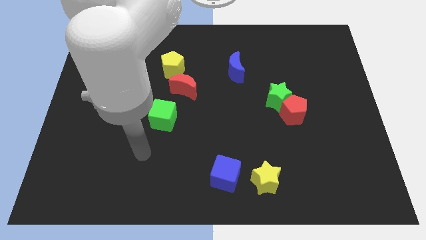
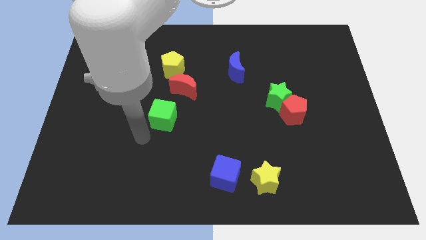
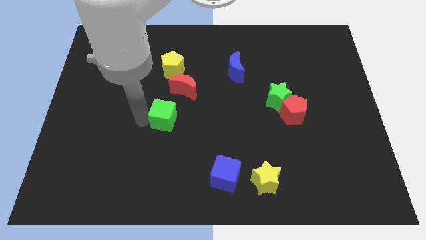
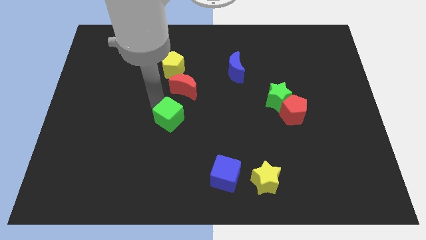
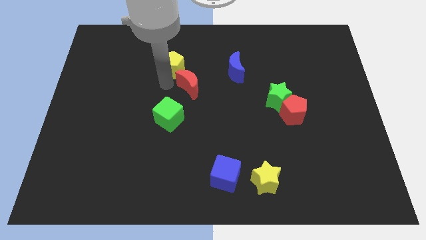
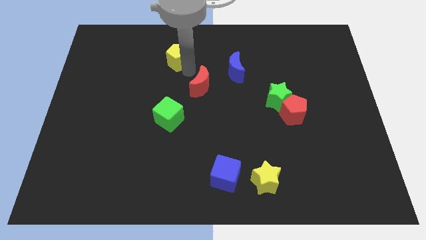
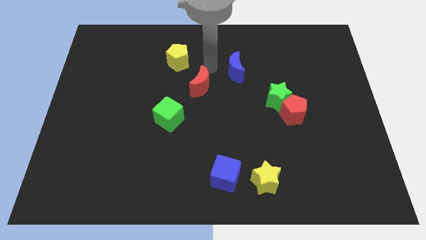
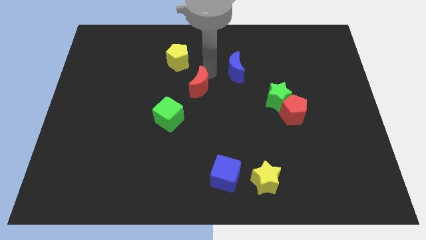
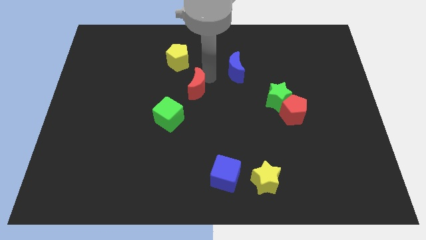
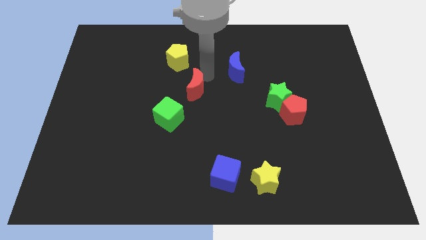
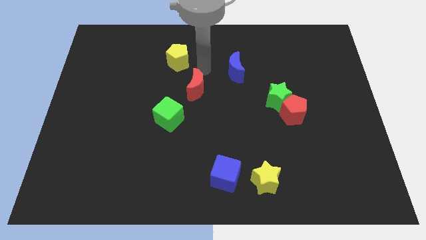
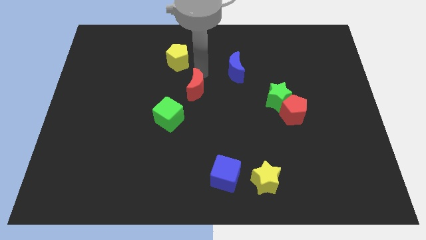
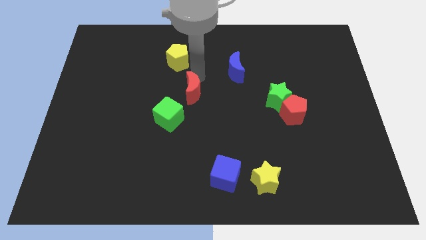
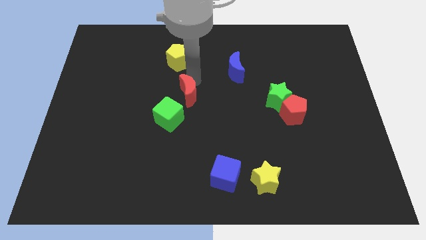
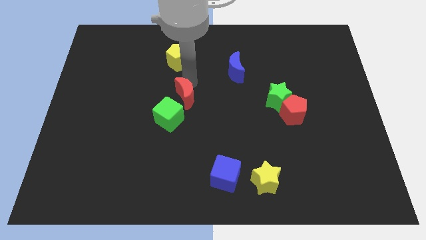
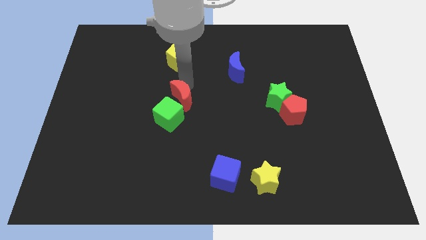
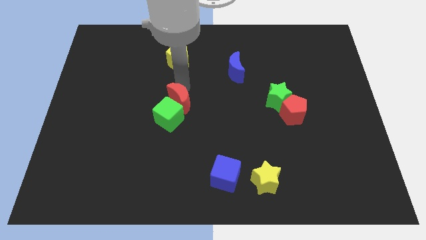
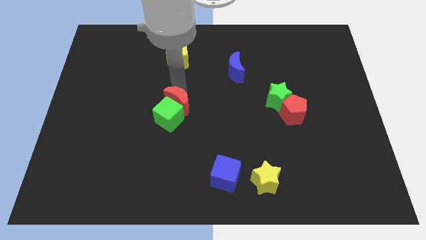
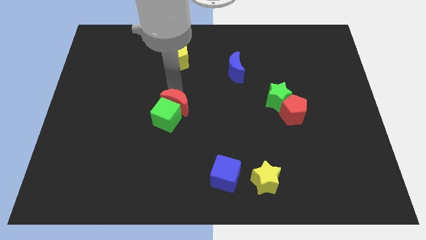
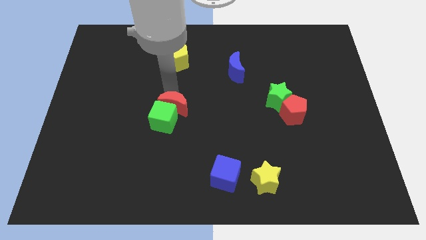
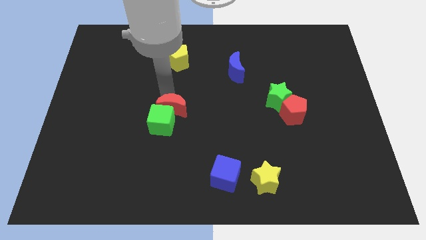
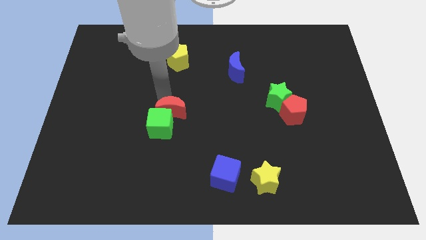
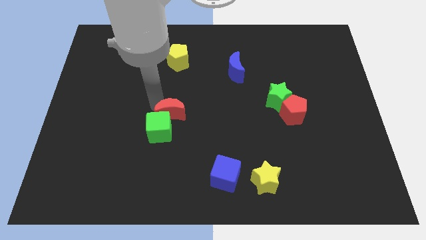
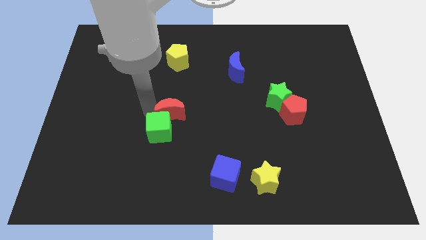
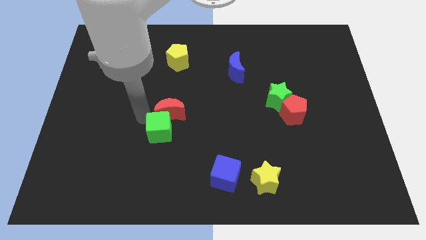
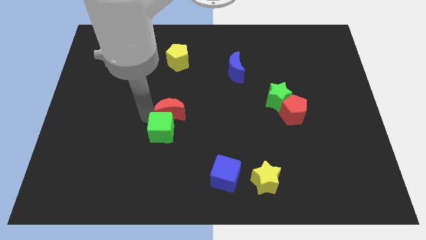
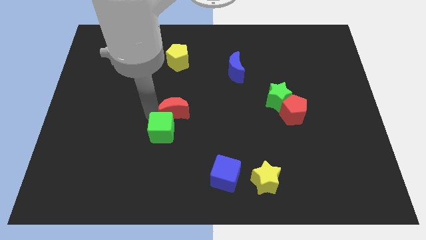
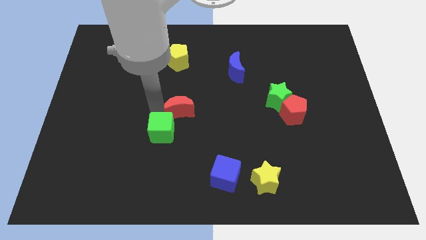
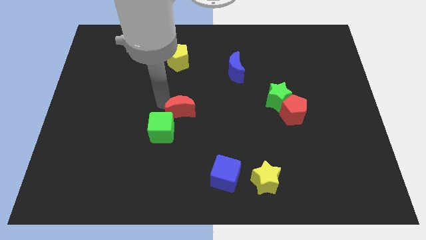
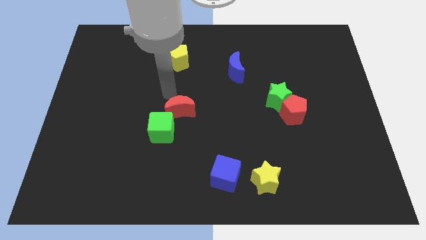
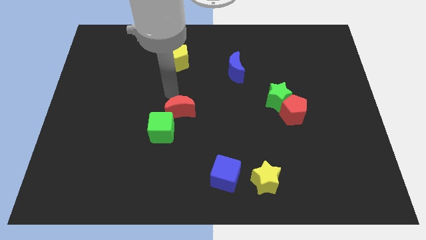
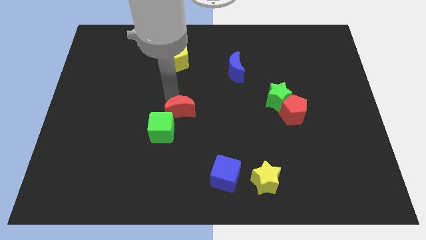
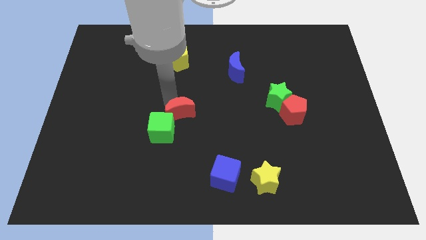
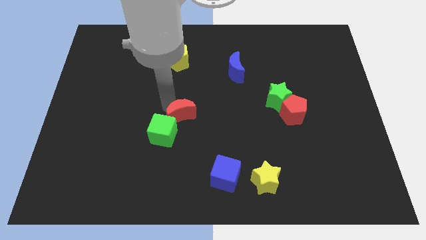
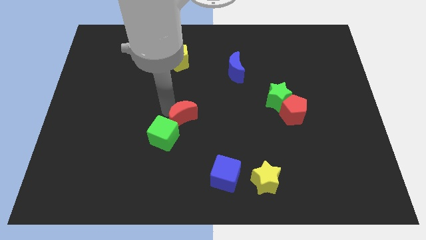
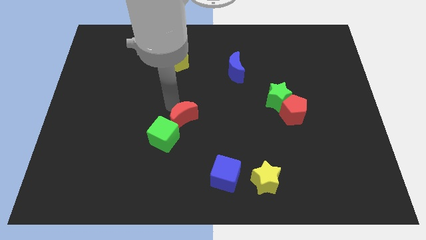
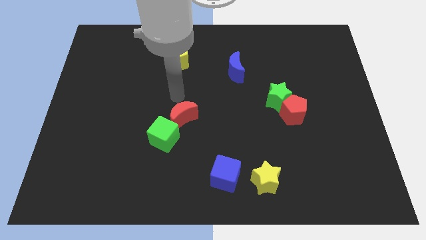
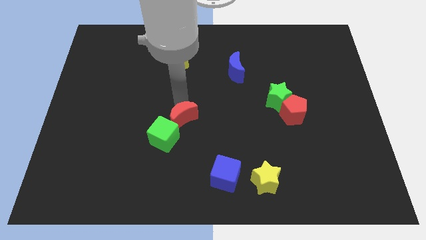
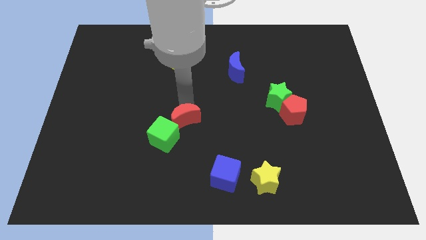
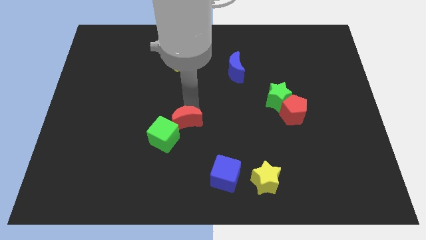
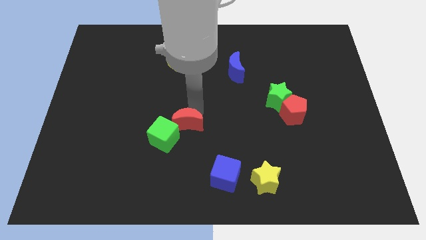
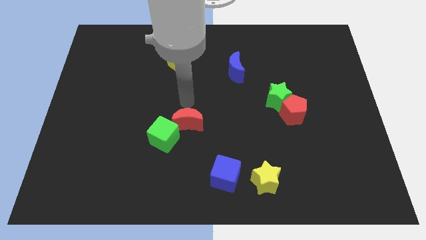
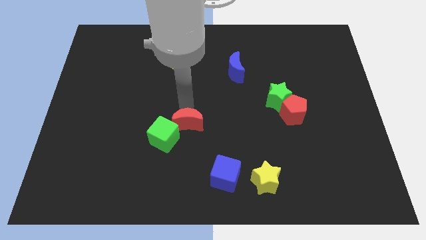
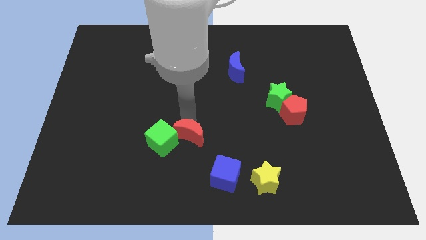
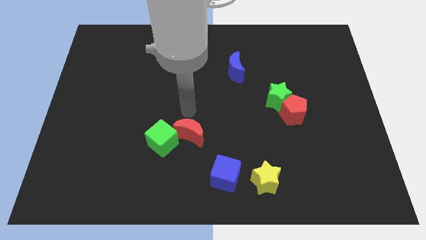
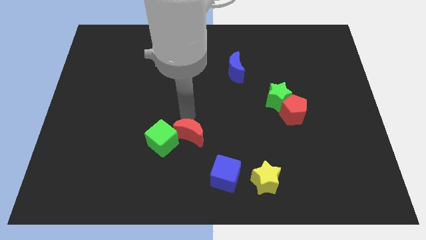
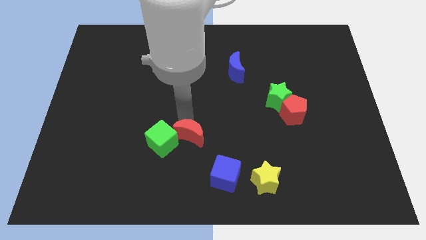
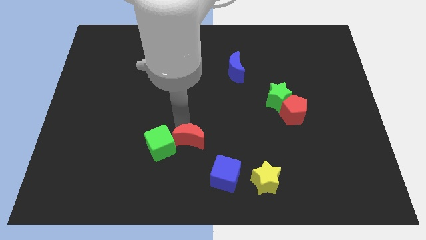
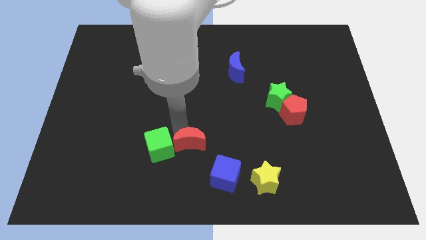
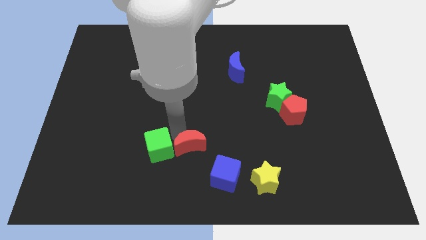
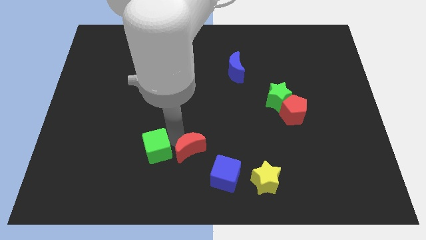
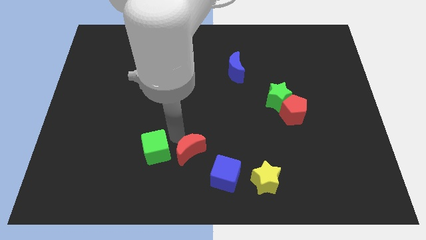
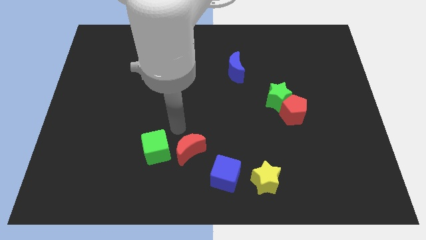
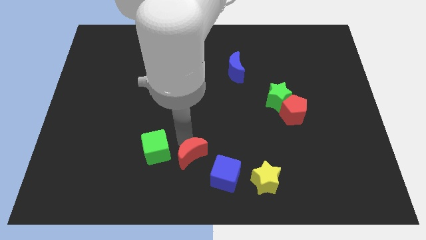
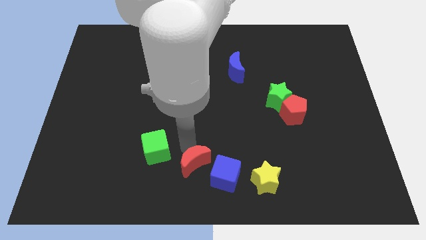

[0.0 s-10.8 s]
put the red moon to the bottom side
